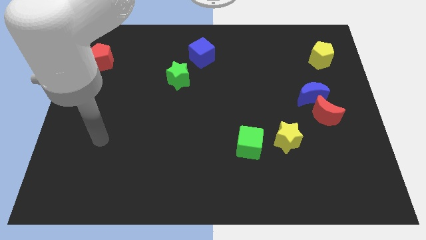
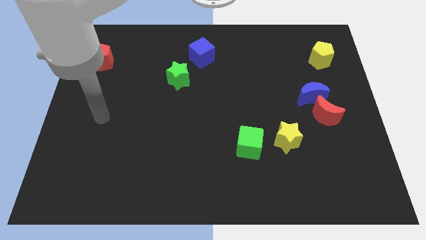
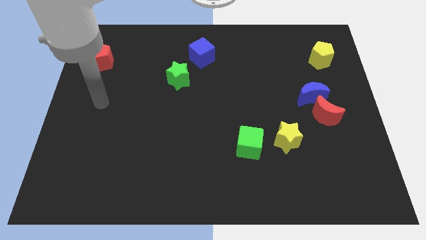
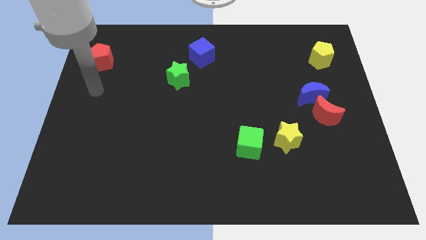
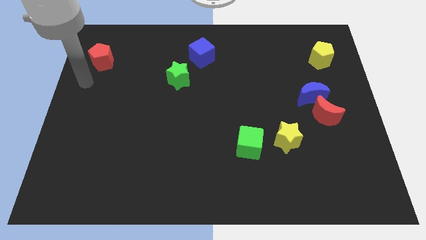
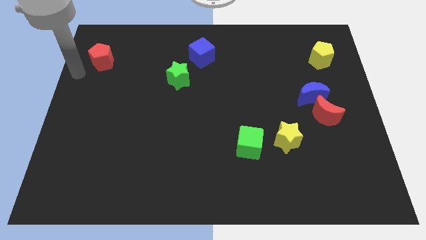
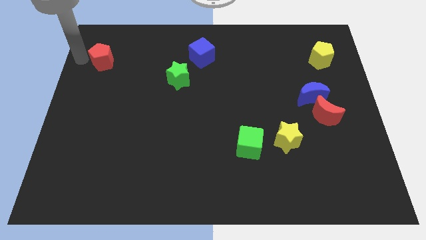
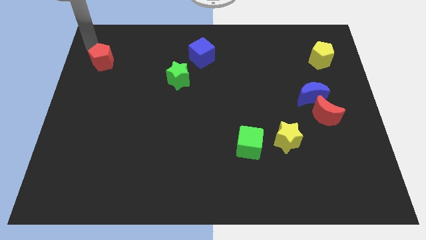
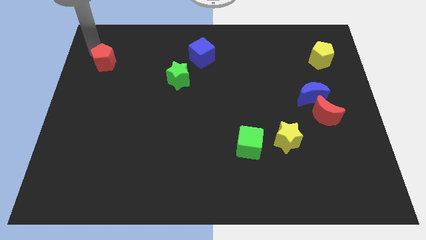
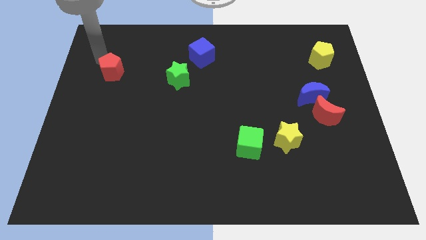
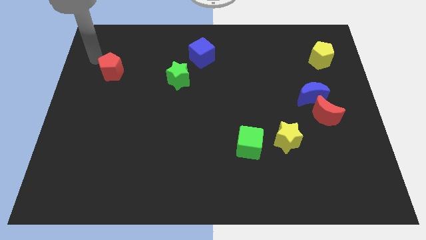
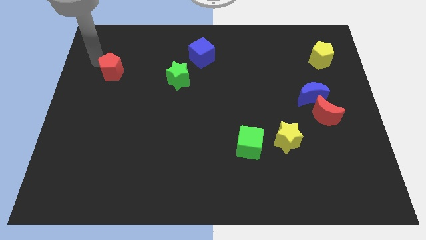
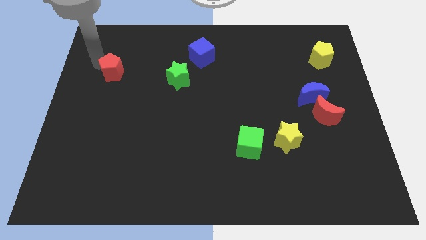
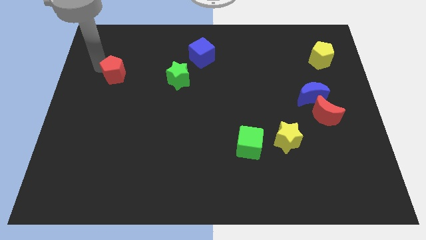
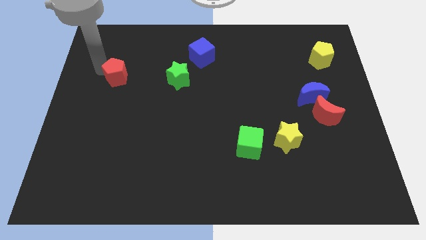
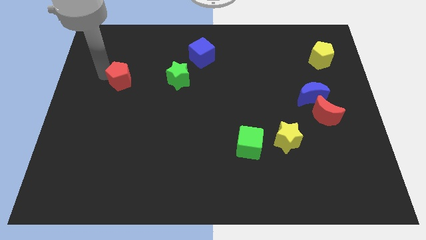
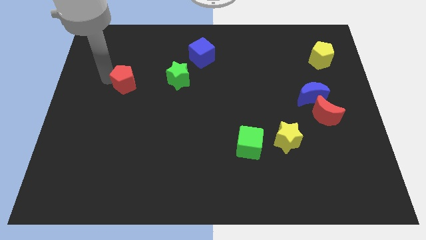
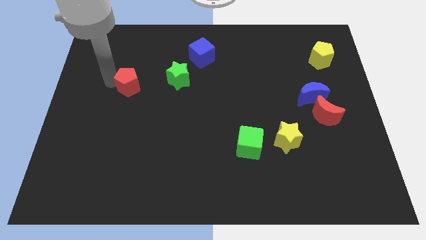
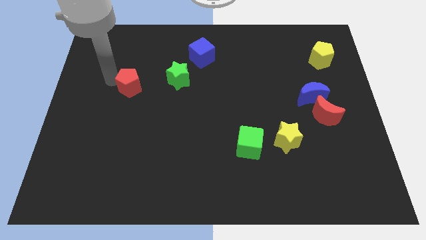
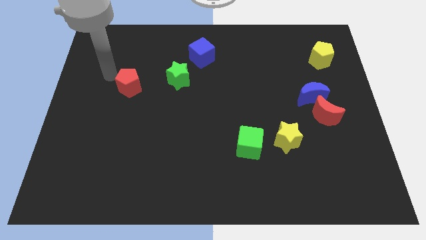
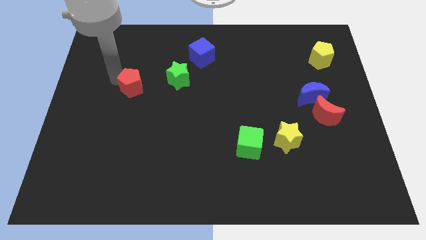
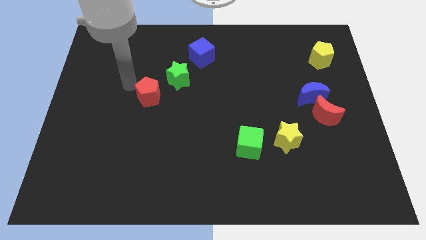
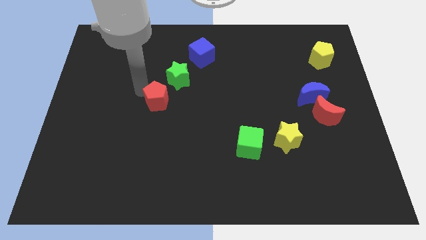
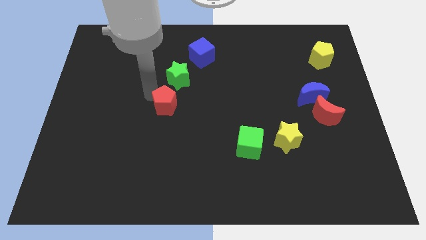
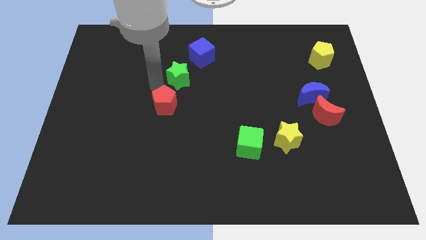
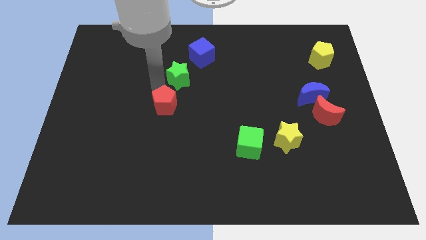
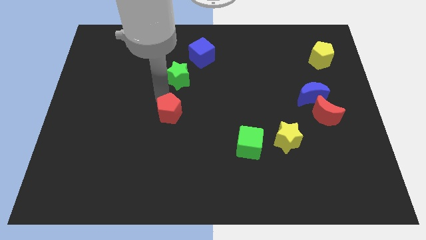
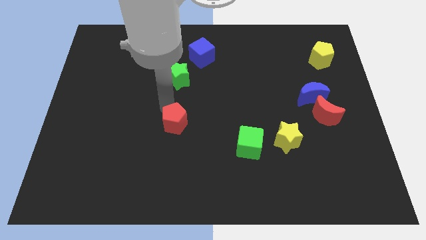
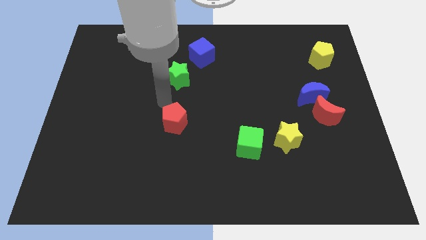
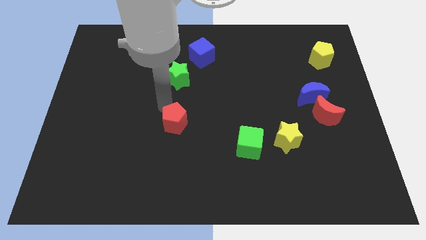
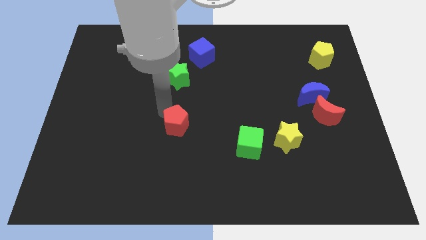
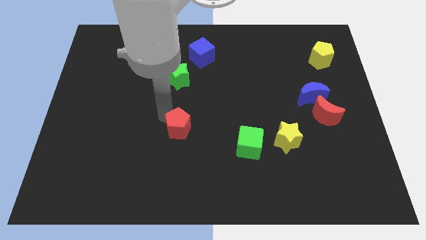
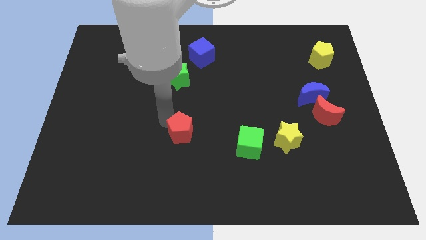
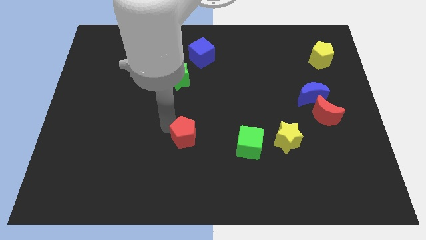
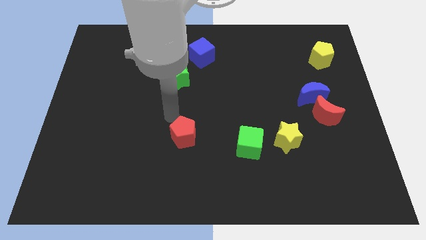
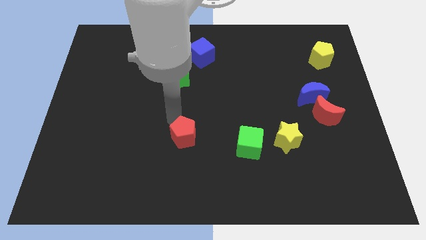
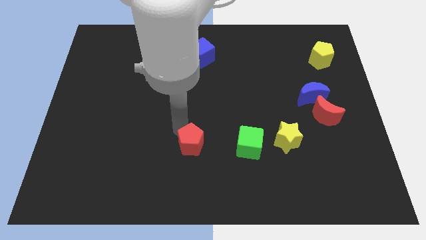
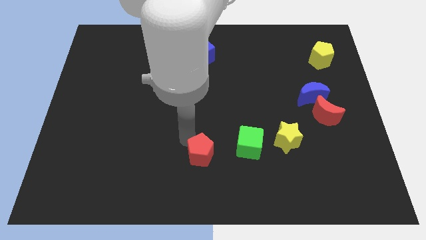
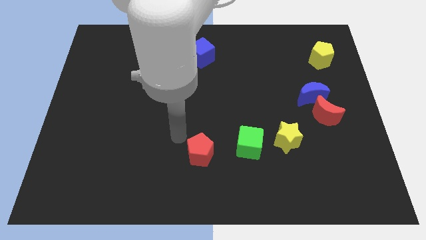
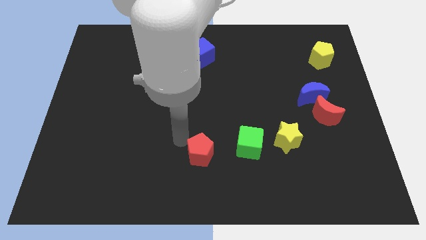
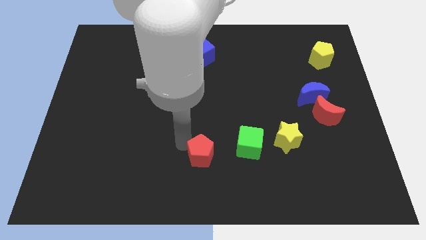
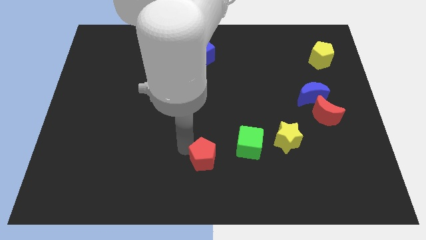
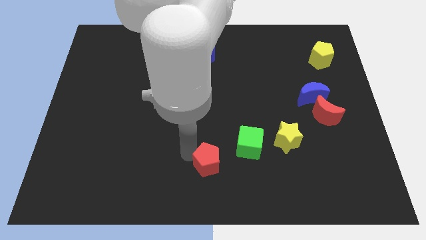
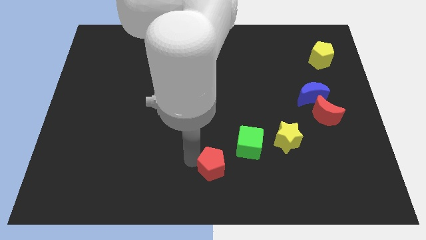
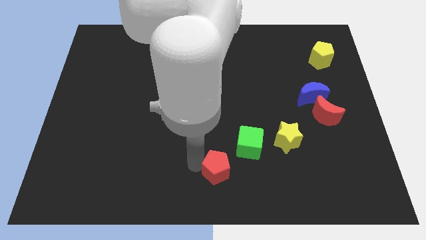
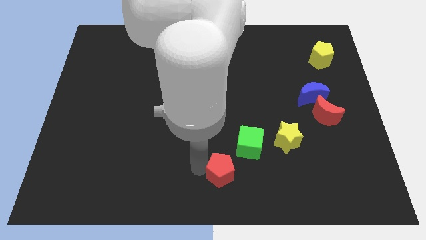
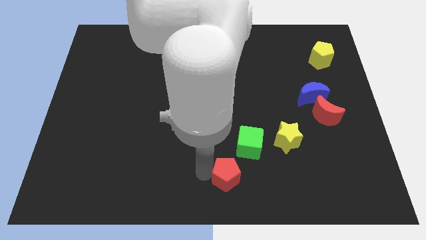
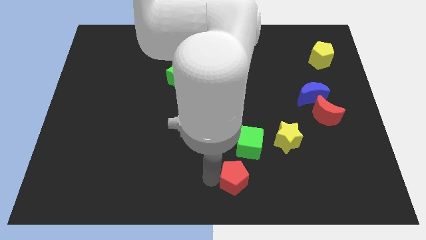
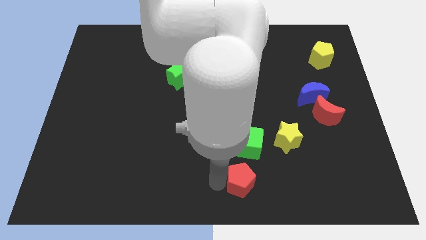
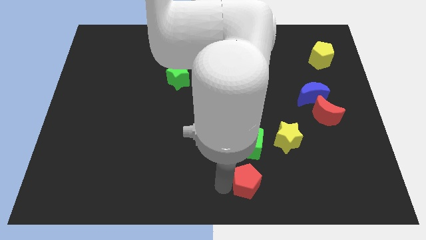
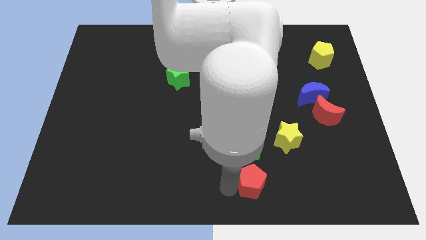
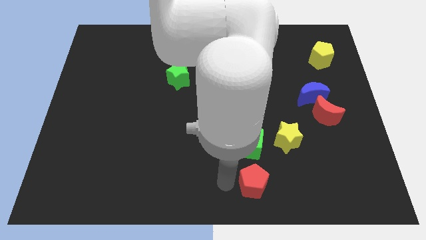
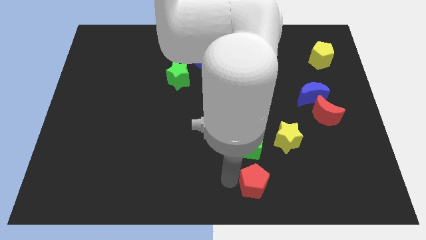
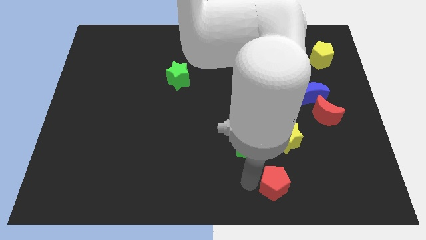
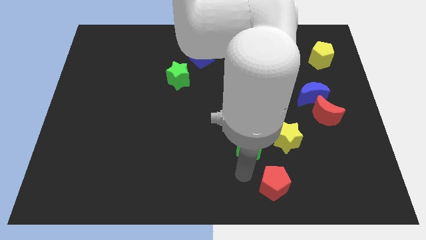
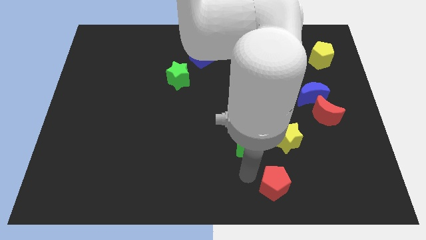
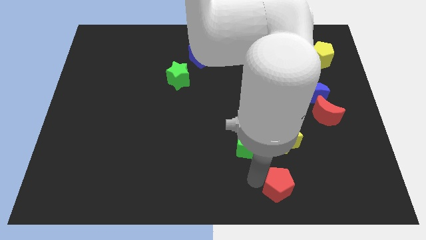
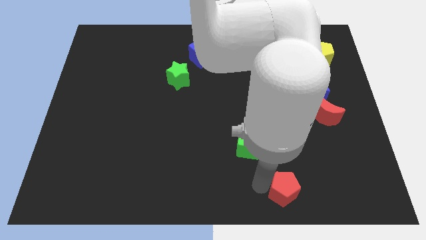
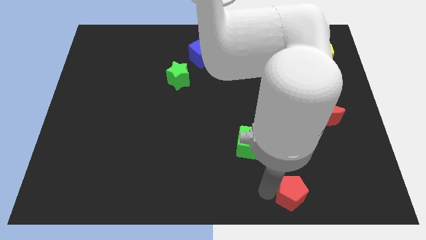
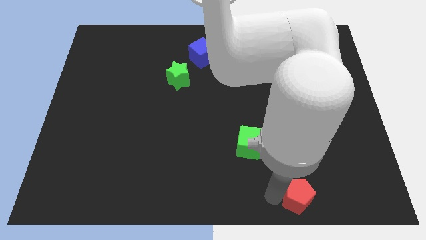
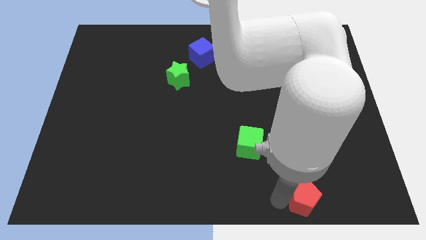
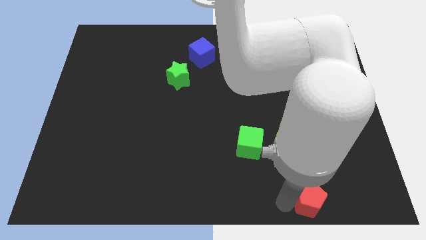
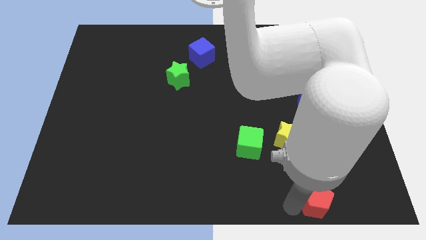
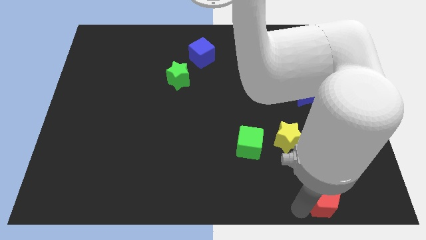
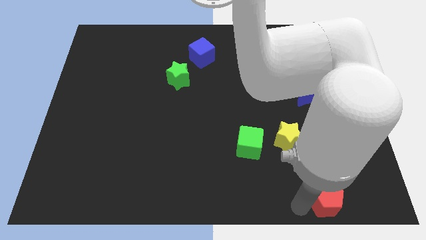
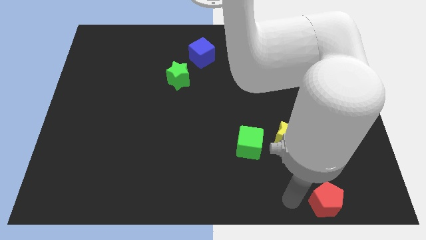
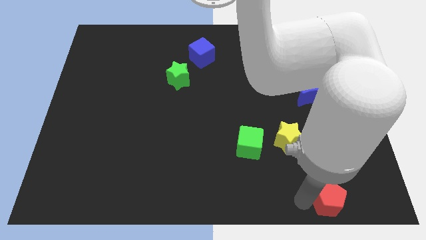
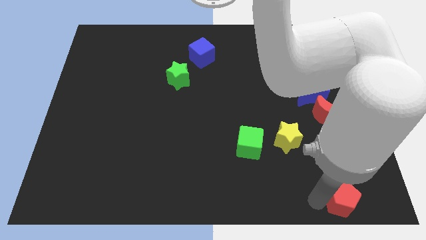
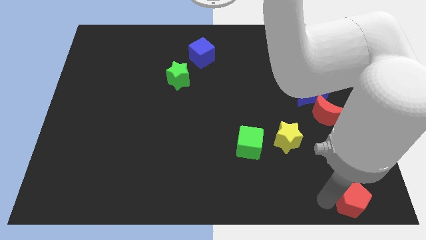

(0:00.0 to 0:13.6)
push the red pentagon to the bottom right
